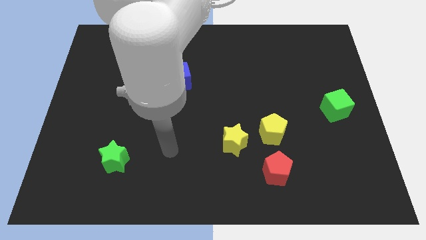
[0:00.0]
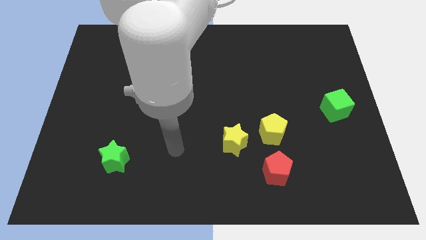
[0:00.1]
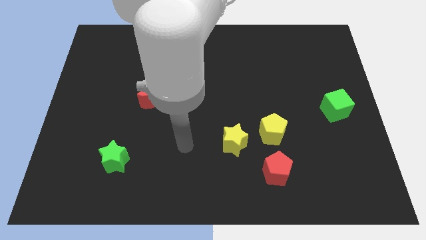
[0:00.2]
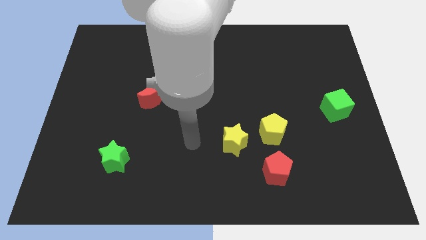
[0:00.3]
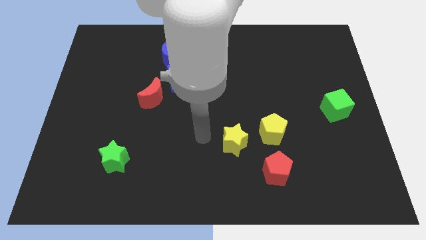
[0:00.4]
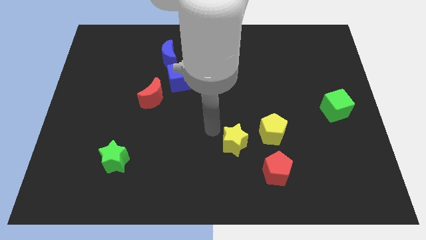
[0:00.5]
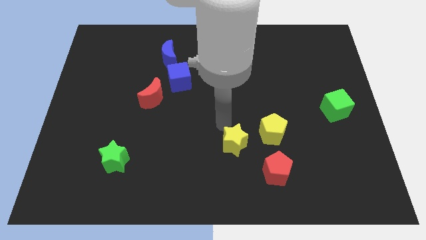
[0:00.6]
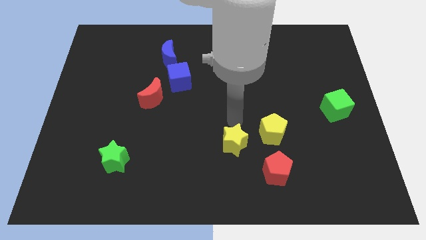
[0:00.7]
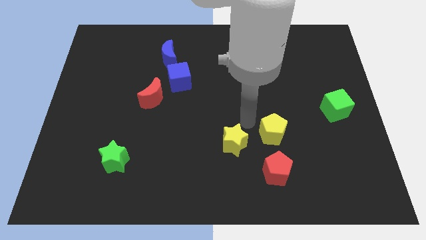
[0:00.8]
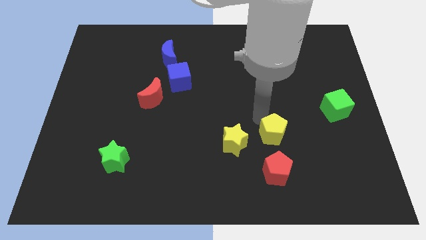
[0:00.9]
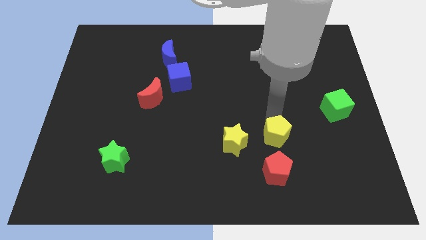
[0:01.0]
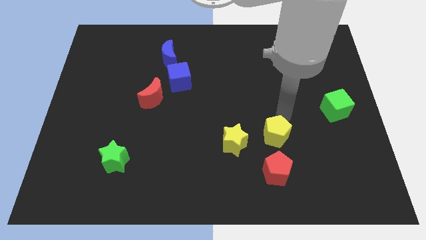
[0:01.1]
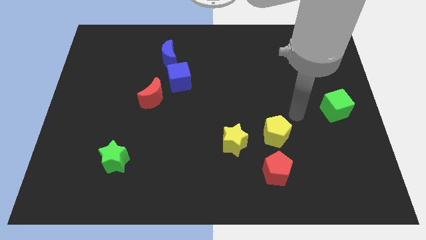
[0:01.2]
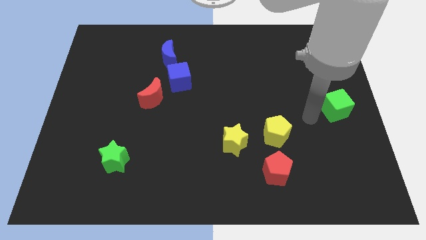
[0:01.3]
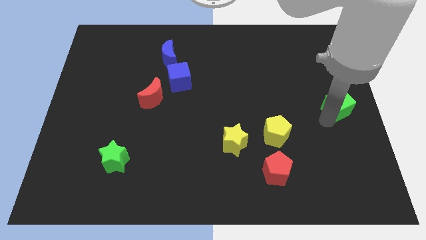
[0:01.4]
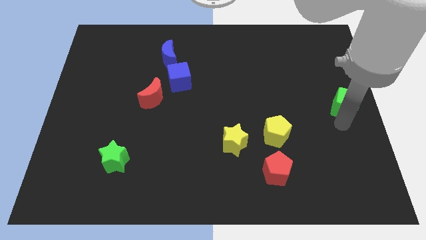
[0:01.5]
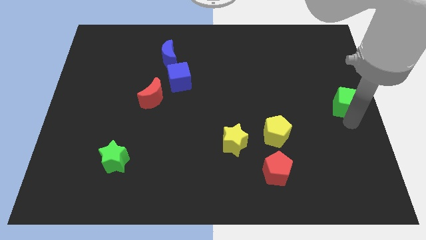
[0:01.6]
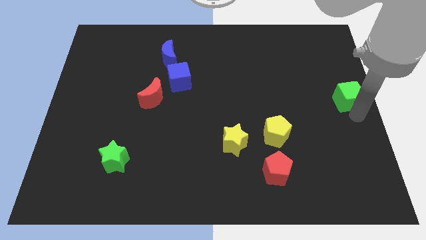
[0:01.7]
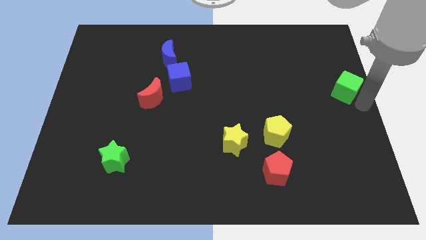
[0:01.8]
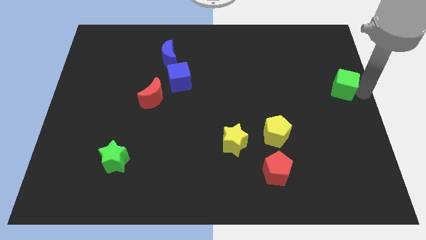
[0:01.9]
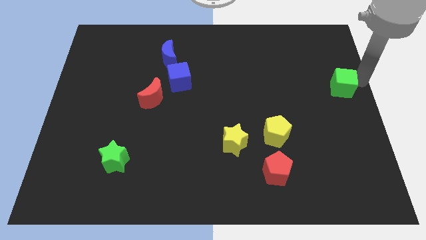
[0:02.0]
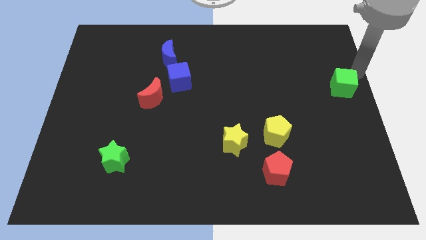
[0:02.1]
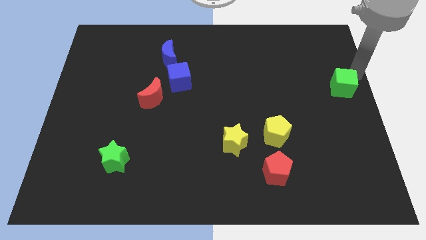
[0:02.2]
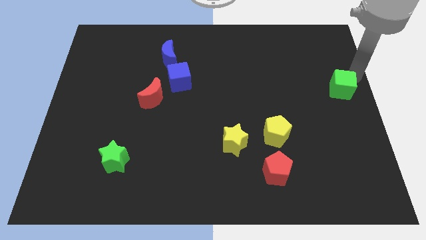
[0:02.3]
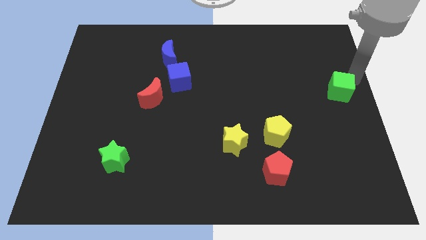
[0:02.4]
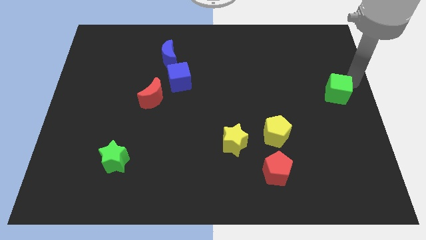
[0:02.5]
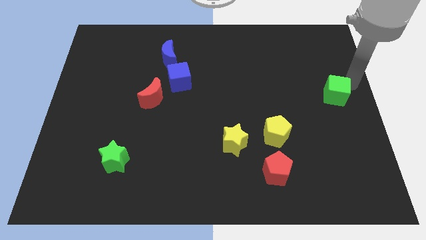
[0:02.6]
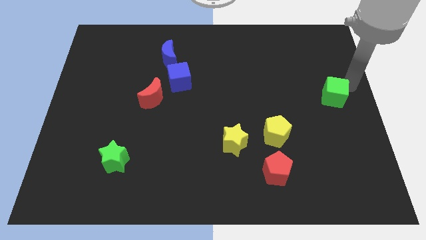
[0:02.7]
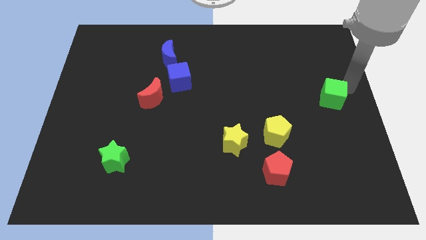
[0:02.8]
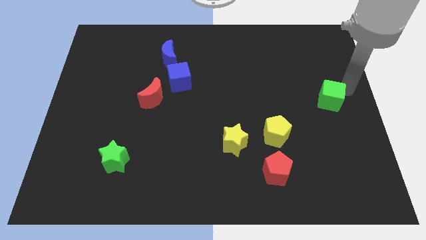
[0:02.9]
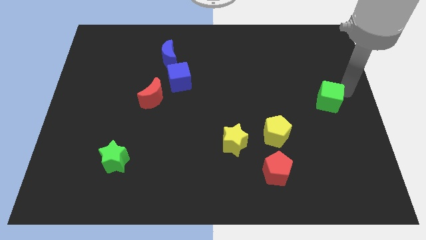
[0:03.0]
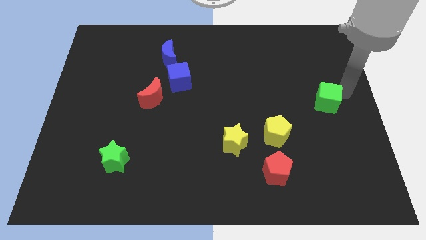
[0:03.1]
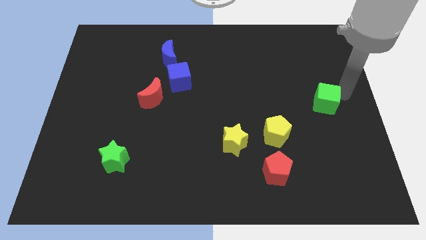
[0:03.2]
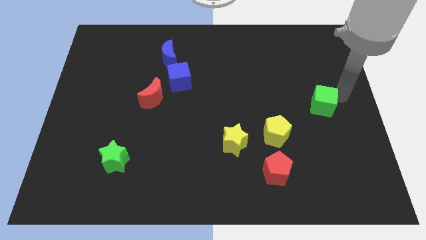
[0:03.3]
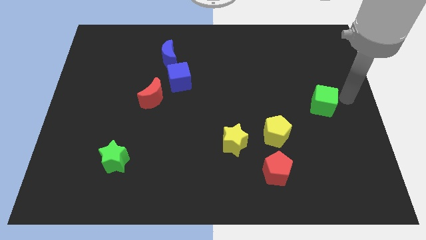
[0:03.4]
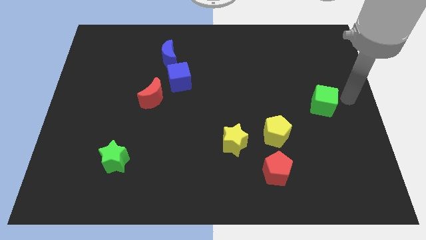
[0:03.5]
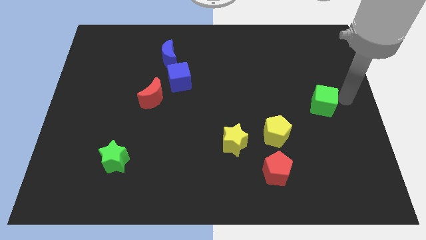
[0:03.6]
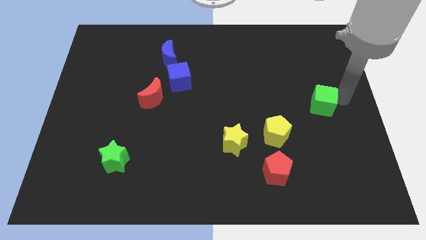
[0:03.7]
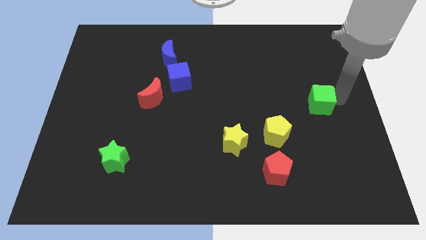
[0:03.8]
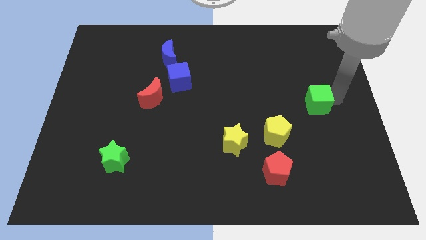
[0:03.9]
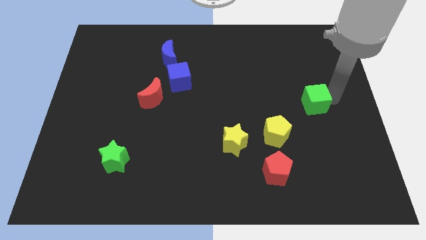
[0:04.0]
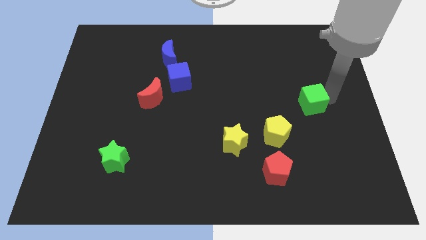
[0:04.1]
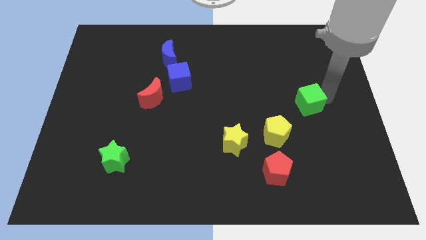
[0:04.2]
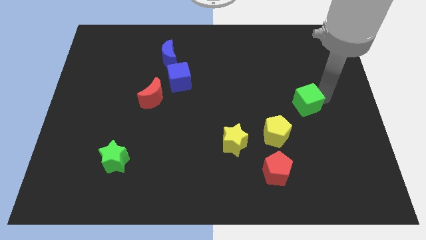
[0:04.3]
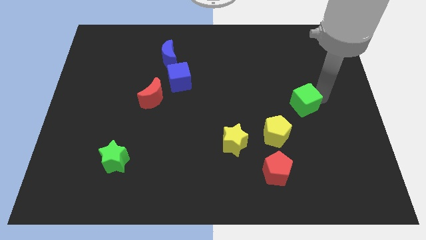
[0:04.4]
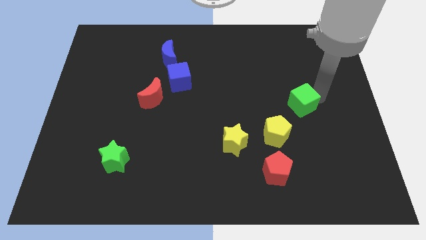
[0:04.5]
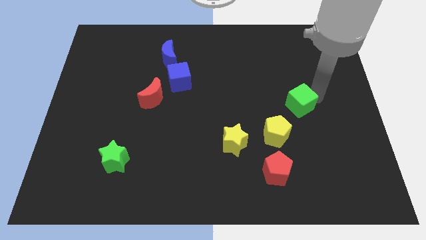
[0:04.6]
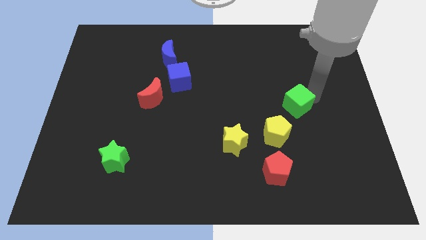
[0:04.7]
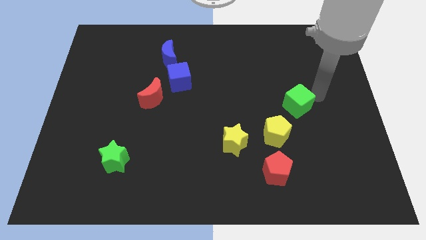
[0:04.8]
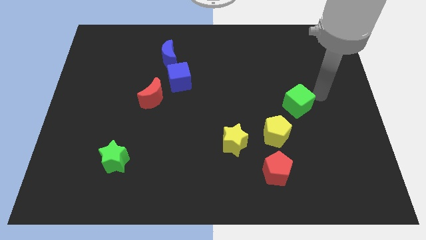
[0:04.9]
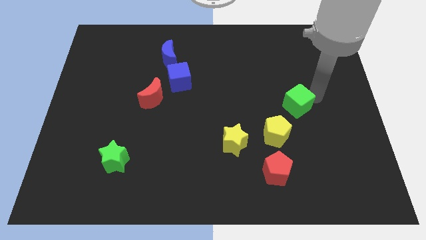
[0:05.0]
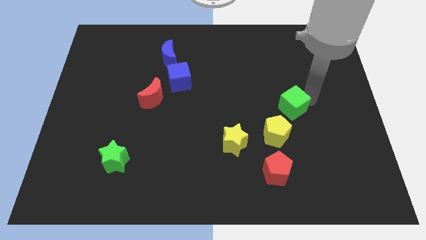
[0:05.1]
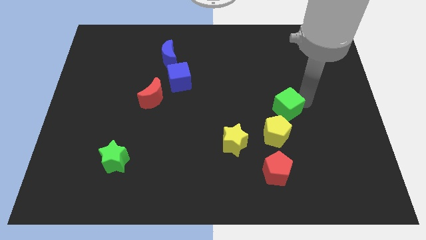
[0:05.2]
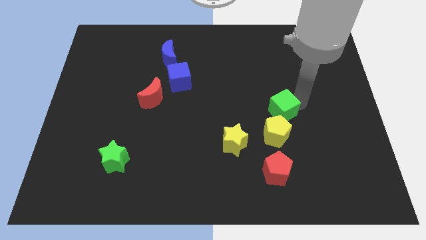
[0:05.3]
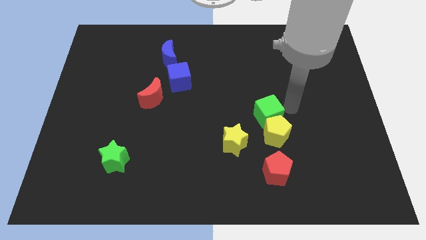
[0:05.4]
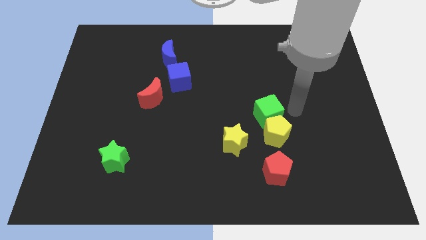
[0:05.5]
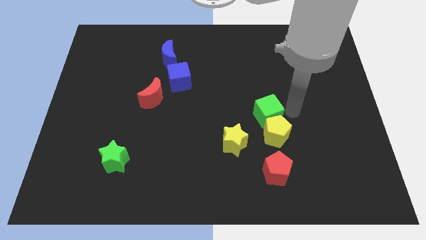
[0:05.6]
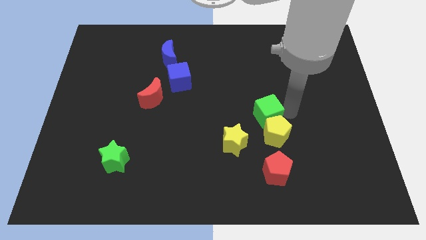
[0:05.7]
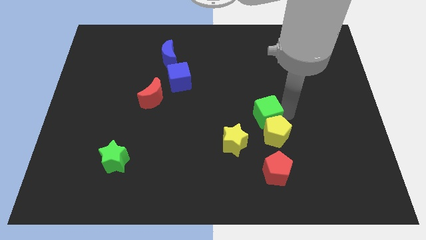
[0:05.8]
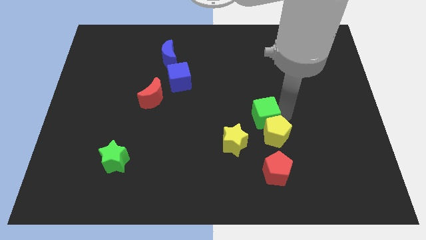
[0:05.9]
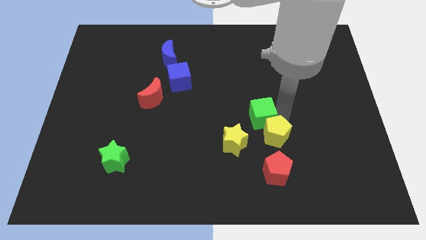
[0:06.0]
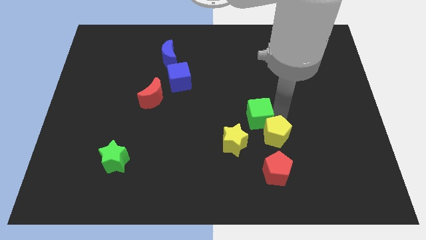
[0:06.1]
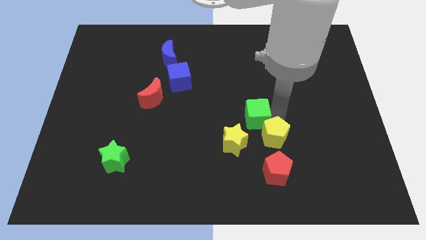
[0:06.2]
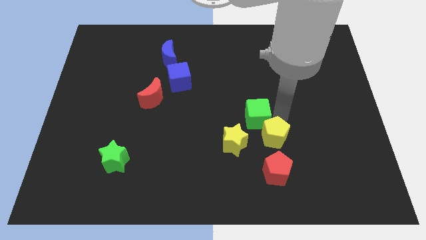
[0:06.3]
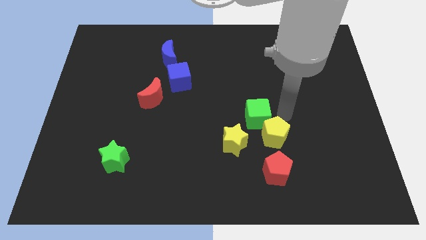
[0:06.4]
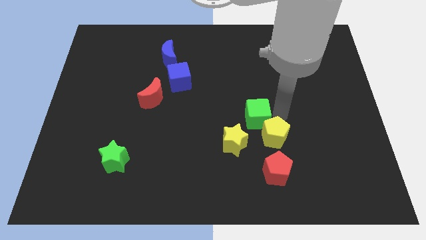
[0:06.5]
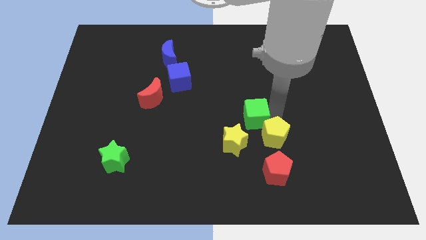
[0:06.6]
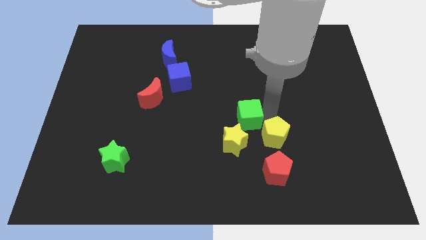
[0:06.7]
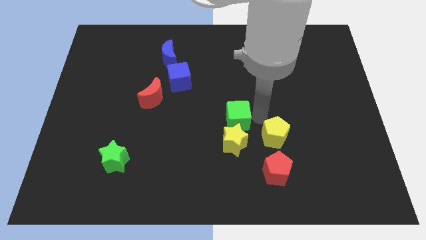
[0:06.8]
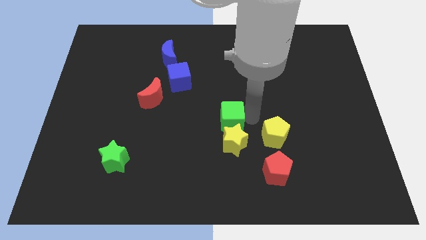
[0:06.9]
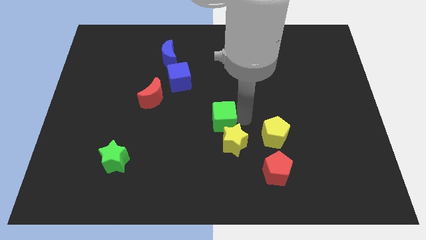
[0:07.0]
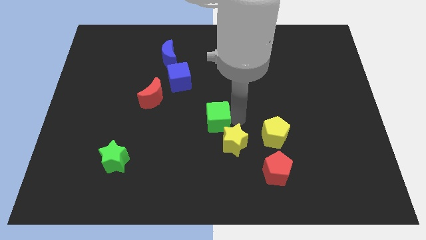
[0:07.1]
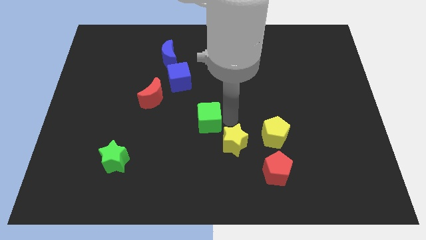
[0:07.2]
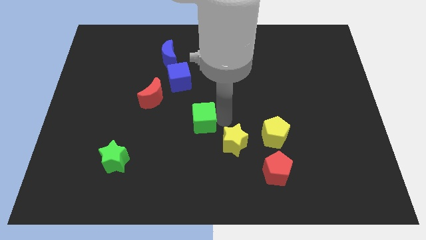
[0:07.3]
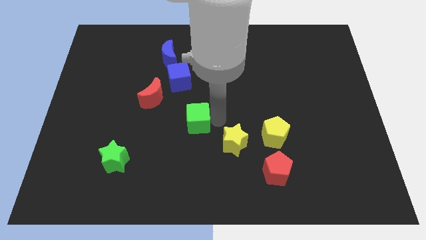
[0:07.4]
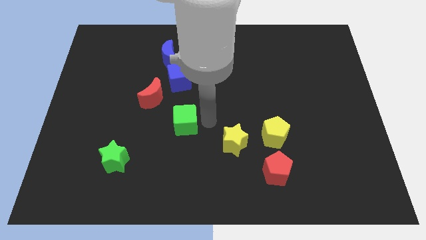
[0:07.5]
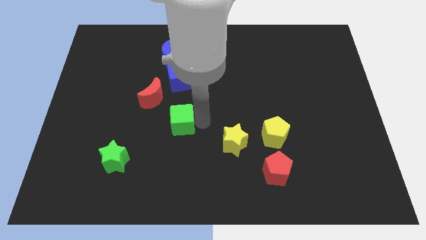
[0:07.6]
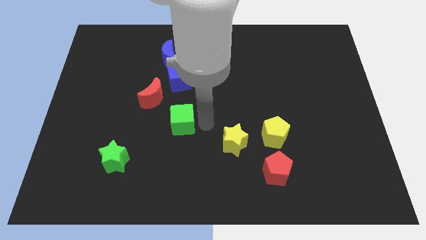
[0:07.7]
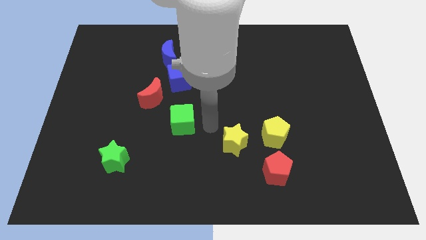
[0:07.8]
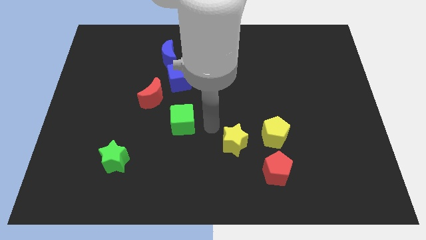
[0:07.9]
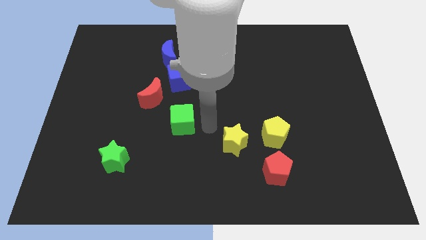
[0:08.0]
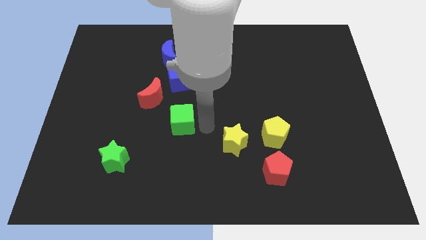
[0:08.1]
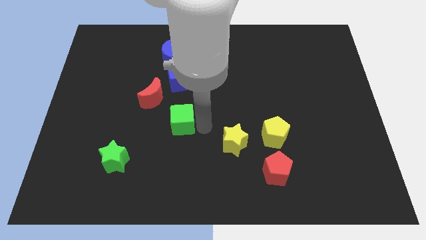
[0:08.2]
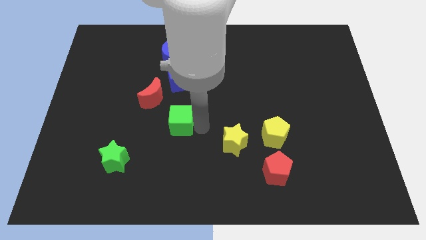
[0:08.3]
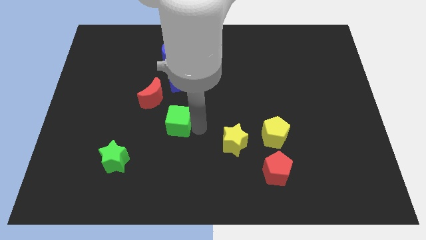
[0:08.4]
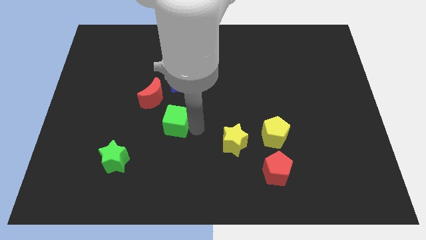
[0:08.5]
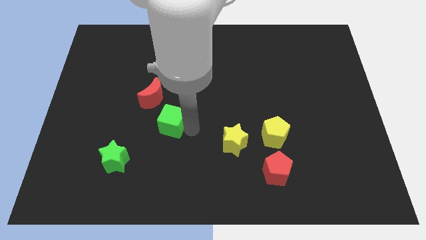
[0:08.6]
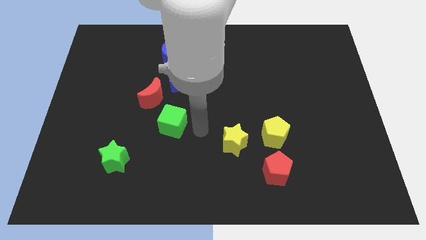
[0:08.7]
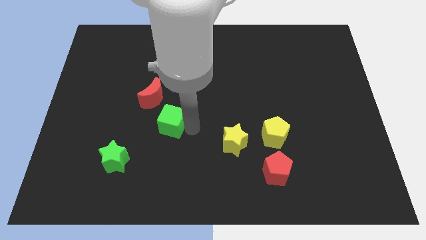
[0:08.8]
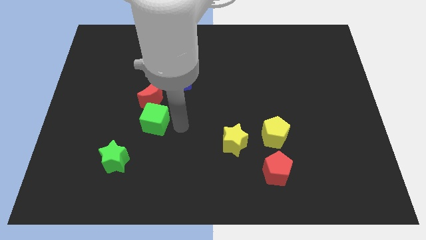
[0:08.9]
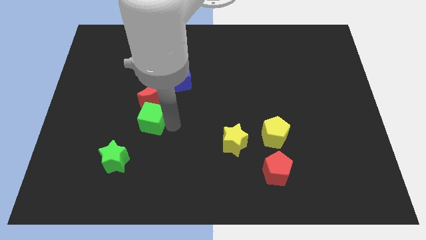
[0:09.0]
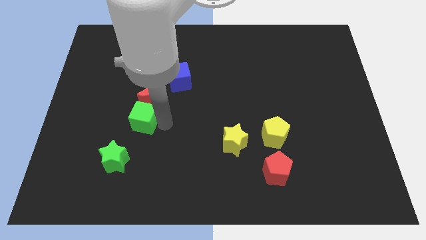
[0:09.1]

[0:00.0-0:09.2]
put the green cube diagonally down and to the left of the red moon
